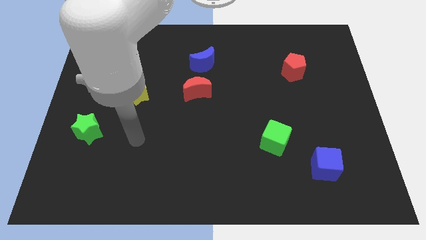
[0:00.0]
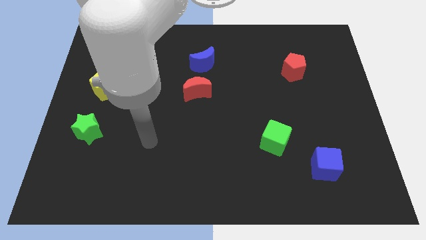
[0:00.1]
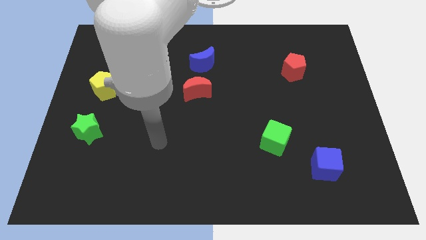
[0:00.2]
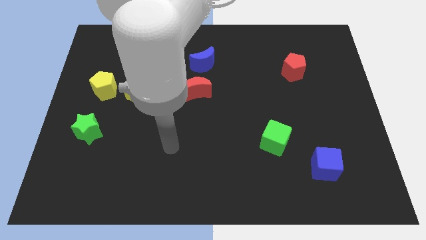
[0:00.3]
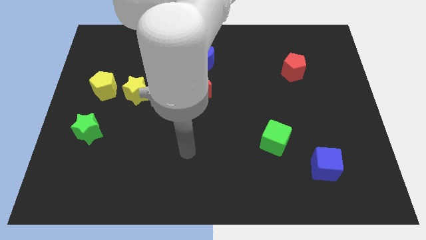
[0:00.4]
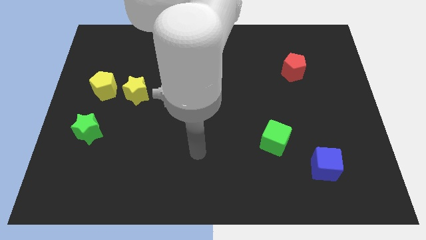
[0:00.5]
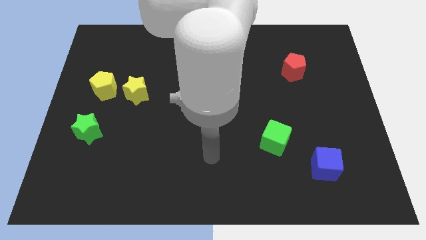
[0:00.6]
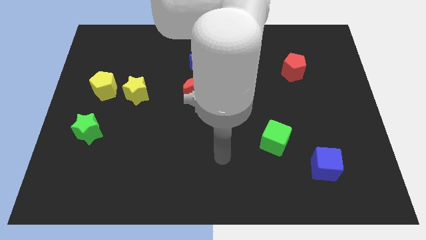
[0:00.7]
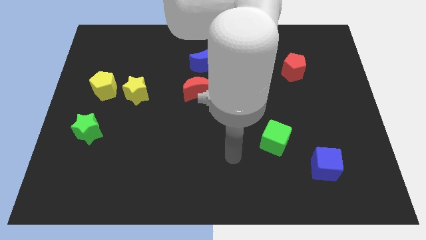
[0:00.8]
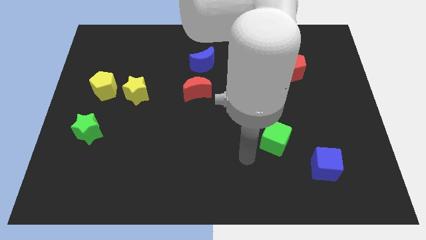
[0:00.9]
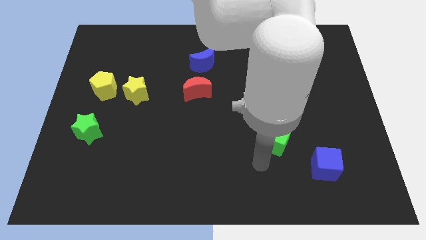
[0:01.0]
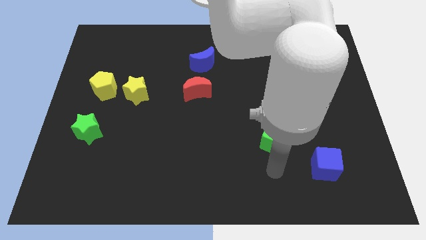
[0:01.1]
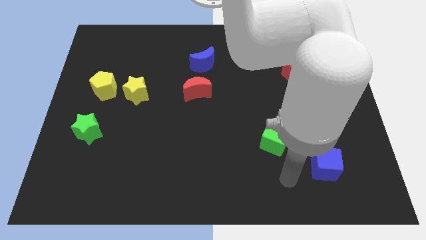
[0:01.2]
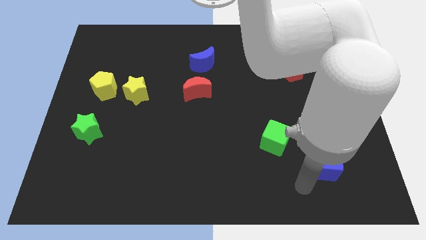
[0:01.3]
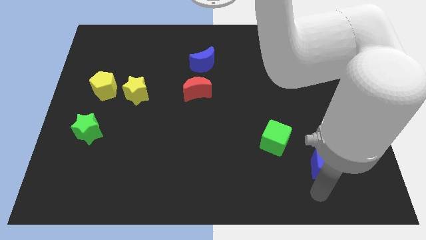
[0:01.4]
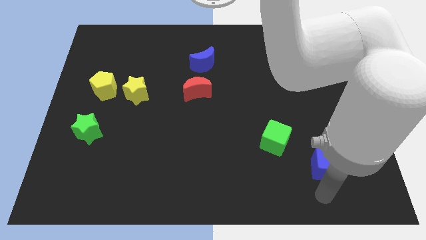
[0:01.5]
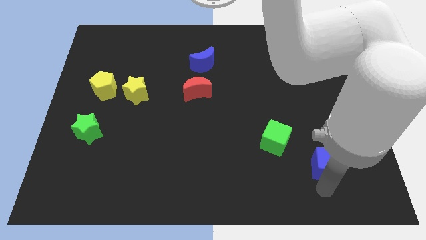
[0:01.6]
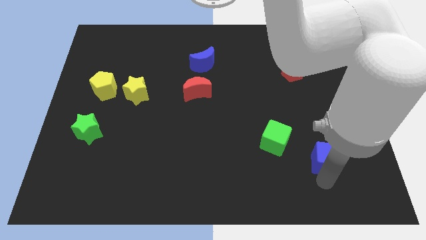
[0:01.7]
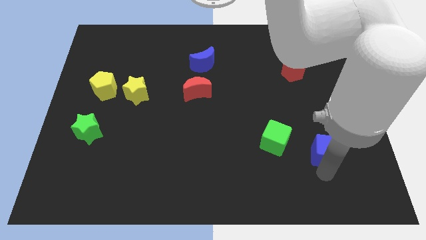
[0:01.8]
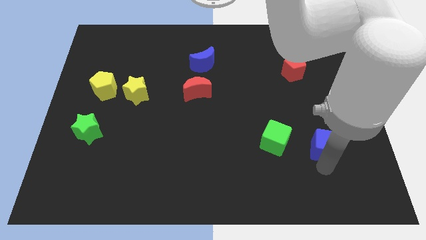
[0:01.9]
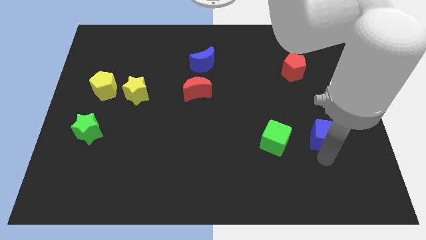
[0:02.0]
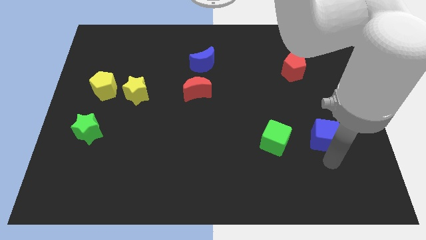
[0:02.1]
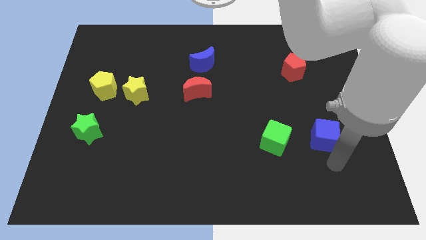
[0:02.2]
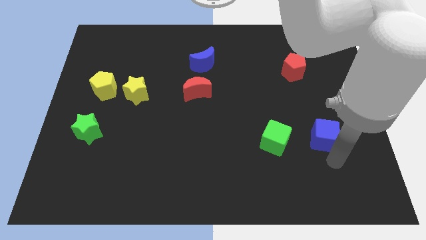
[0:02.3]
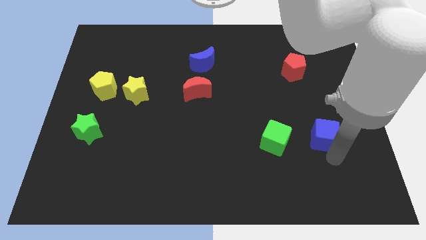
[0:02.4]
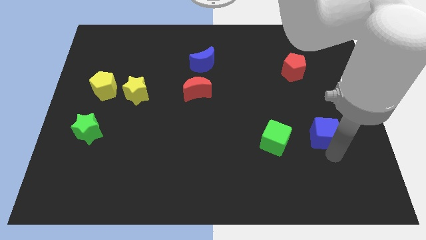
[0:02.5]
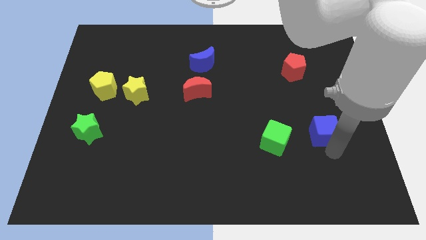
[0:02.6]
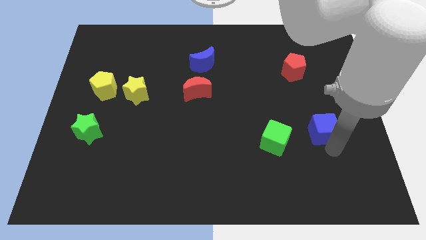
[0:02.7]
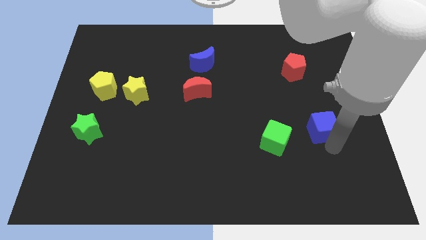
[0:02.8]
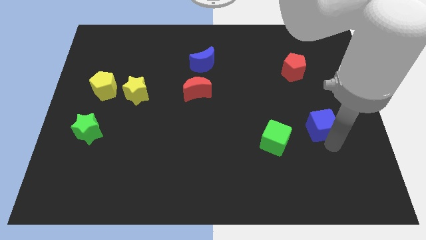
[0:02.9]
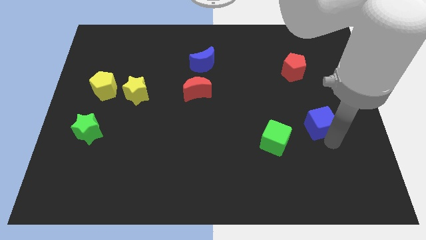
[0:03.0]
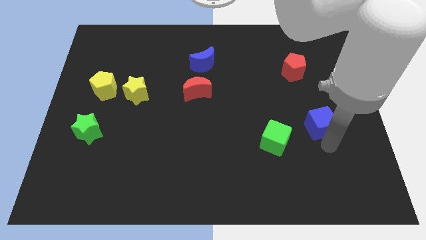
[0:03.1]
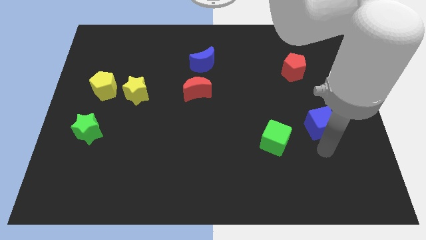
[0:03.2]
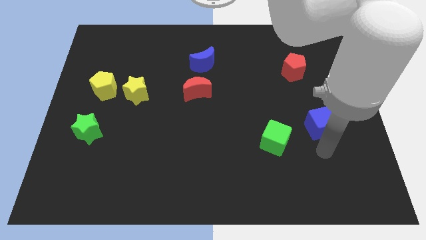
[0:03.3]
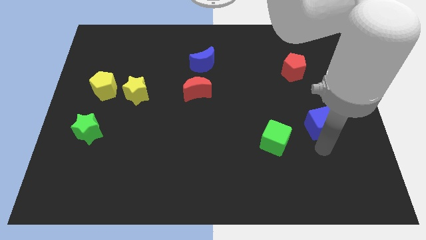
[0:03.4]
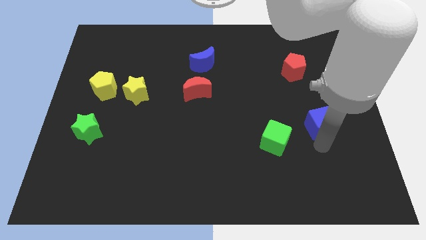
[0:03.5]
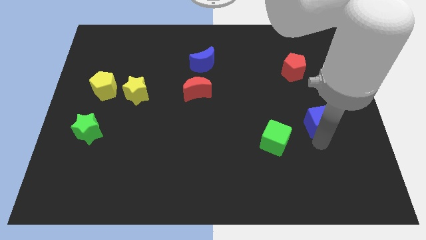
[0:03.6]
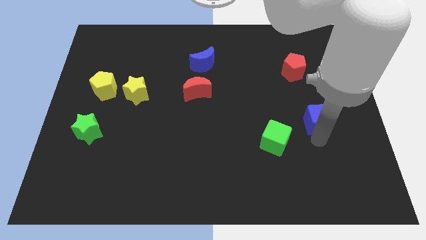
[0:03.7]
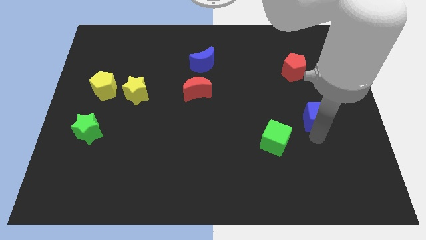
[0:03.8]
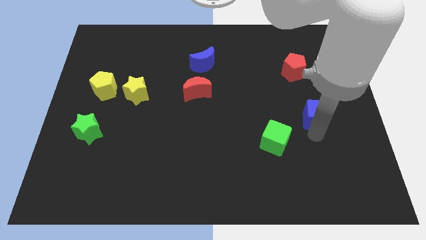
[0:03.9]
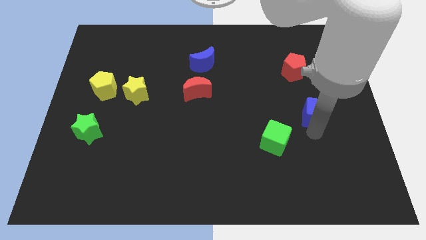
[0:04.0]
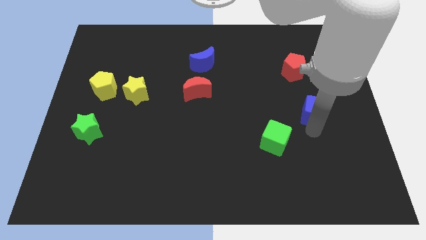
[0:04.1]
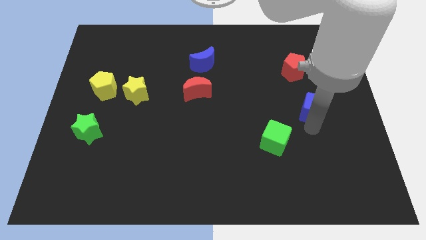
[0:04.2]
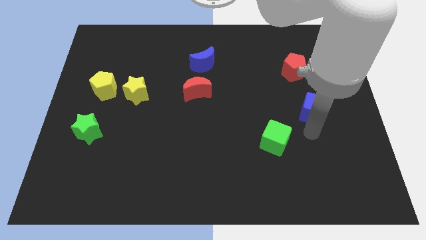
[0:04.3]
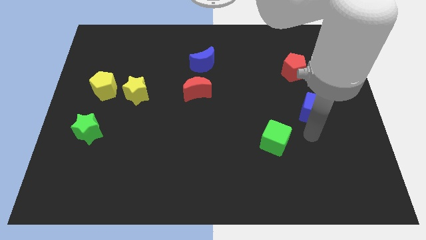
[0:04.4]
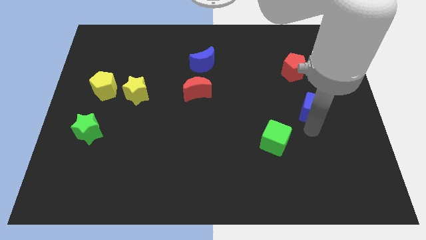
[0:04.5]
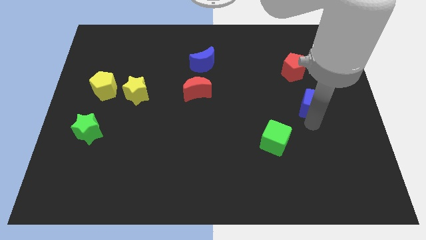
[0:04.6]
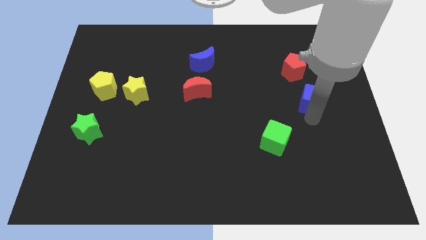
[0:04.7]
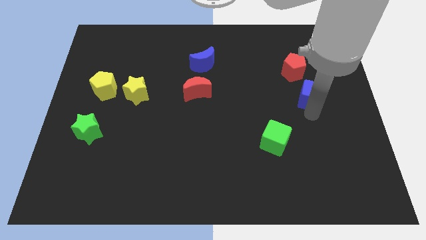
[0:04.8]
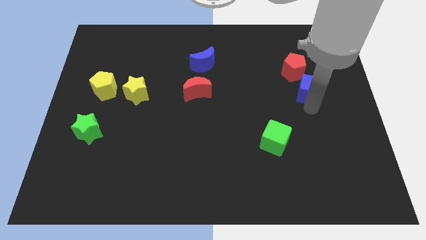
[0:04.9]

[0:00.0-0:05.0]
slide the blue cube upwards

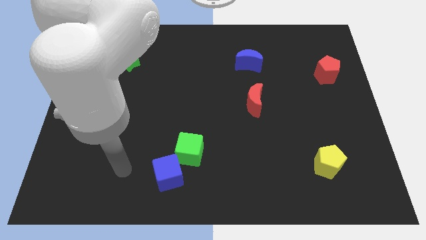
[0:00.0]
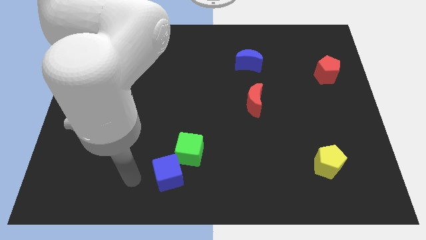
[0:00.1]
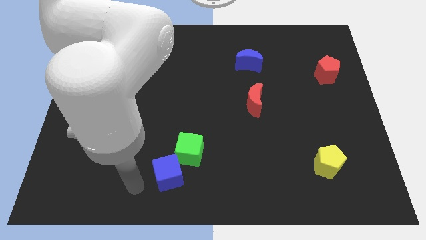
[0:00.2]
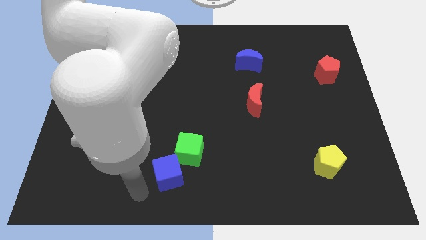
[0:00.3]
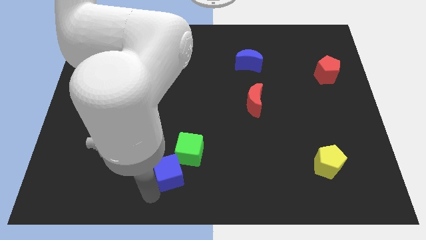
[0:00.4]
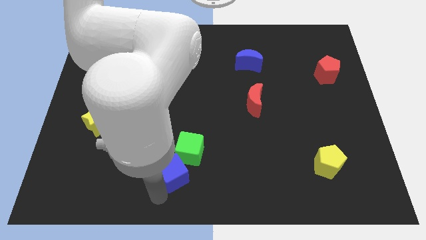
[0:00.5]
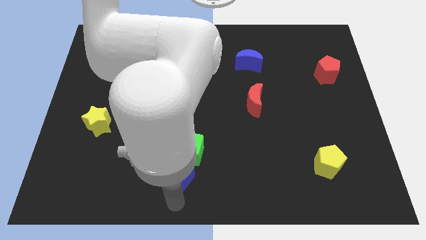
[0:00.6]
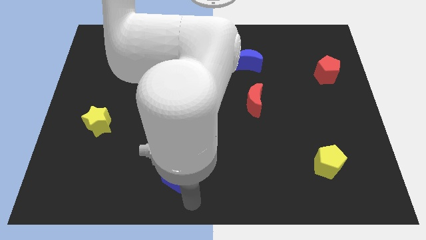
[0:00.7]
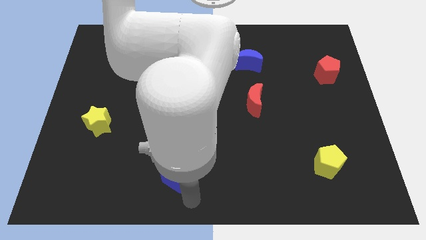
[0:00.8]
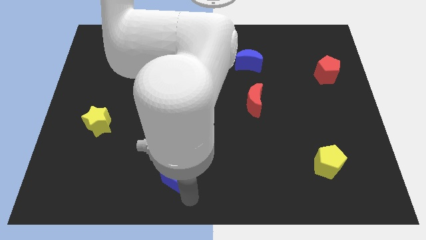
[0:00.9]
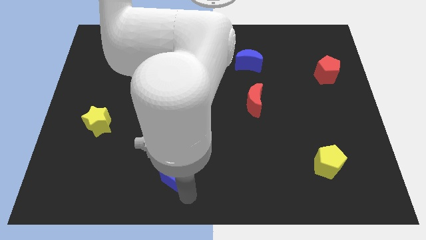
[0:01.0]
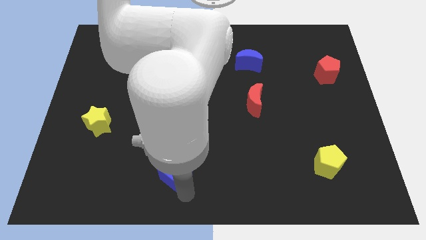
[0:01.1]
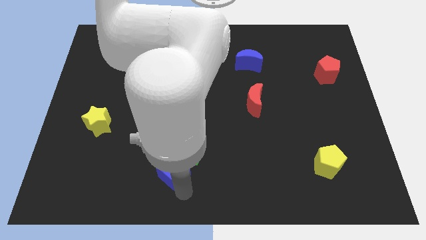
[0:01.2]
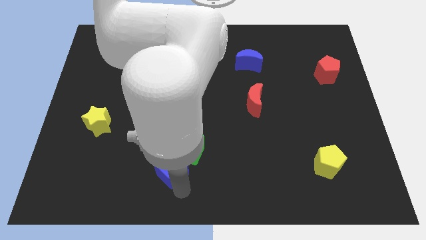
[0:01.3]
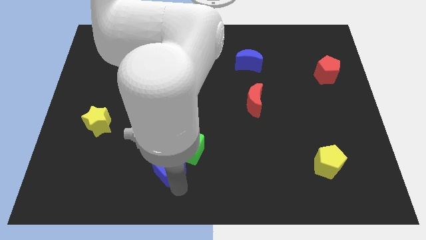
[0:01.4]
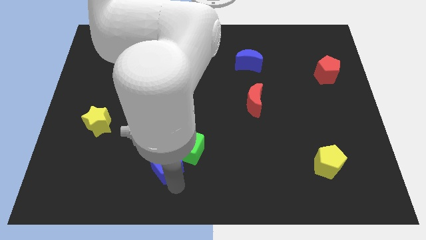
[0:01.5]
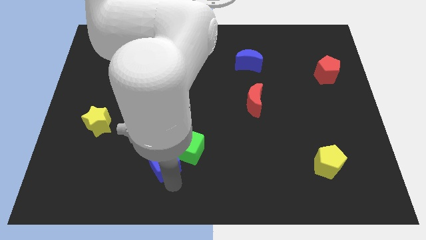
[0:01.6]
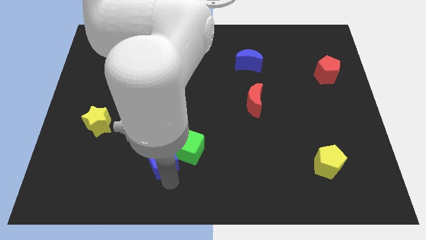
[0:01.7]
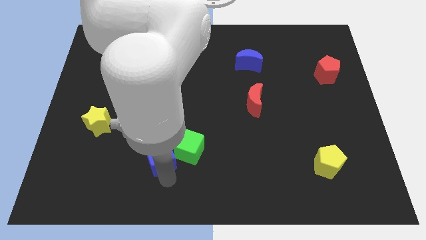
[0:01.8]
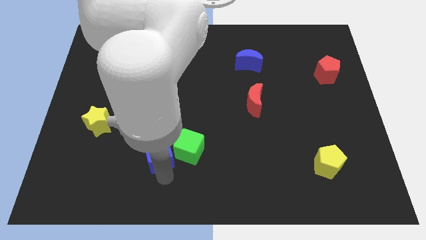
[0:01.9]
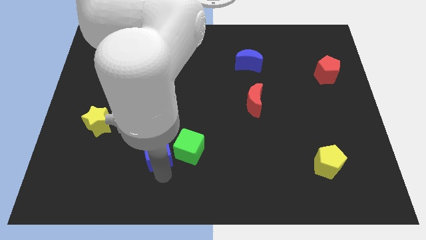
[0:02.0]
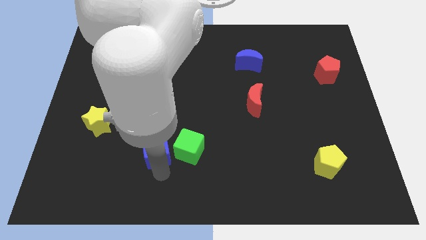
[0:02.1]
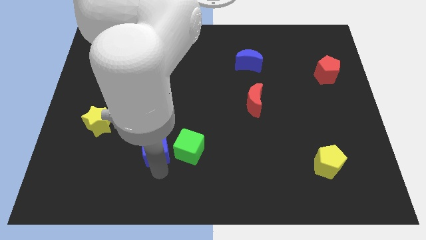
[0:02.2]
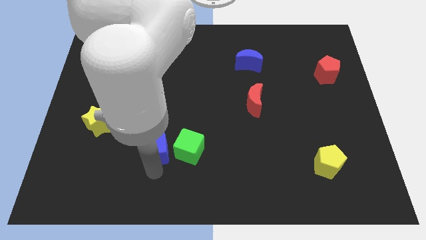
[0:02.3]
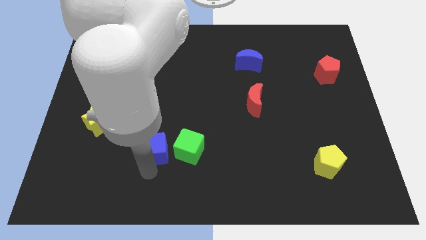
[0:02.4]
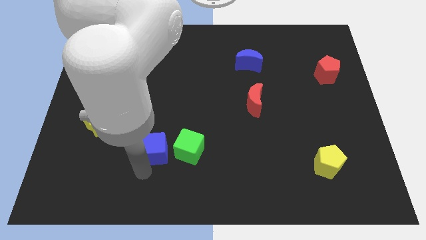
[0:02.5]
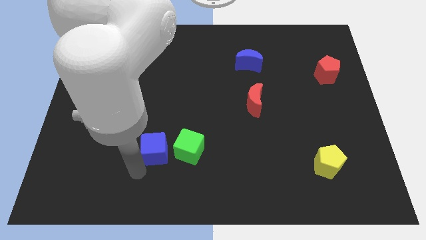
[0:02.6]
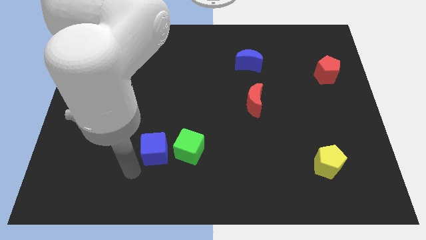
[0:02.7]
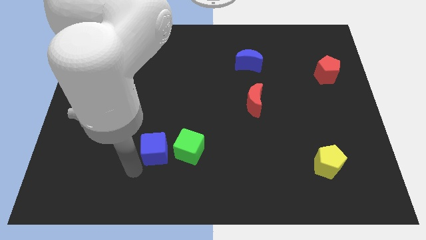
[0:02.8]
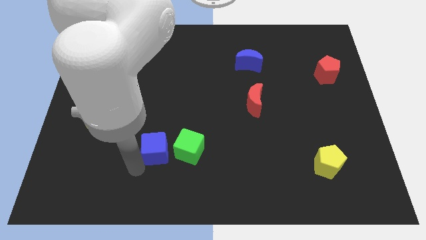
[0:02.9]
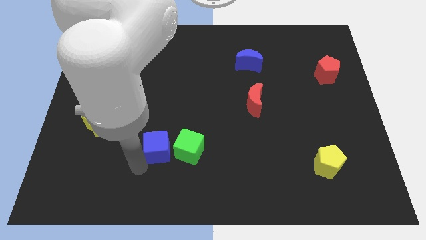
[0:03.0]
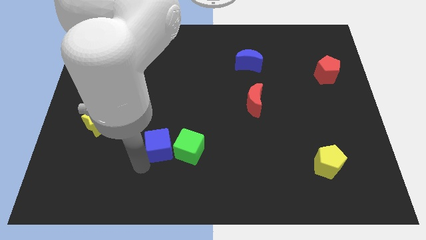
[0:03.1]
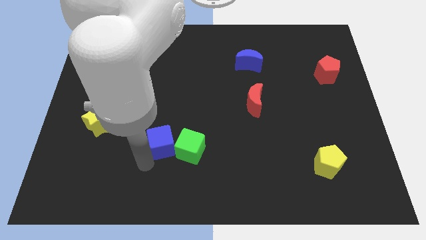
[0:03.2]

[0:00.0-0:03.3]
slightly slide the blue cube up
